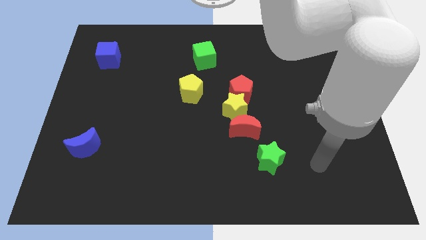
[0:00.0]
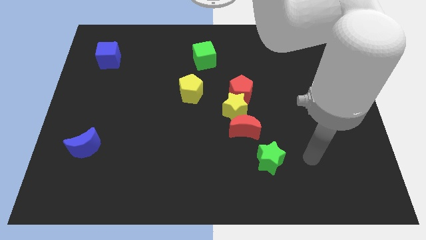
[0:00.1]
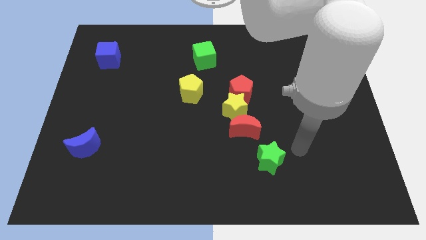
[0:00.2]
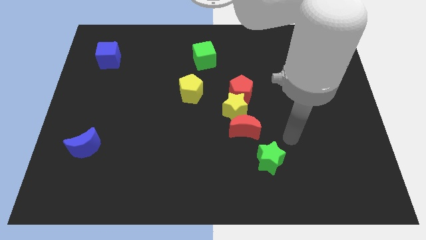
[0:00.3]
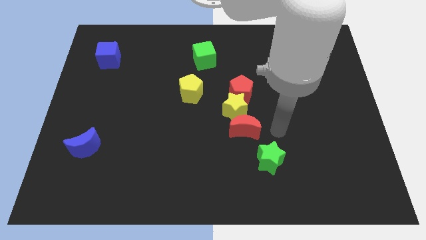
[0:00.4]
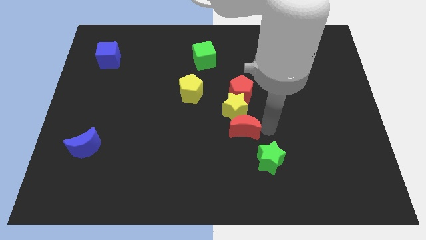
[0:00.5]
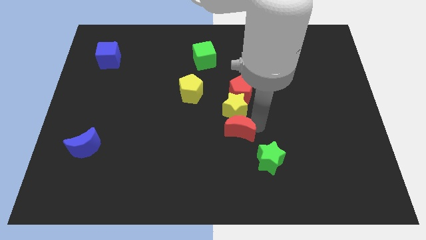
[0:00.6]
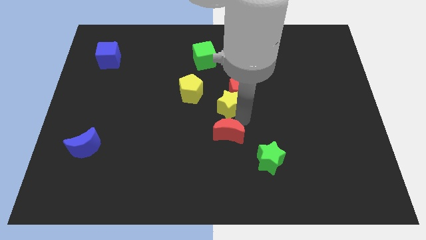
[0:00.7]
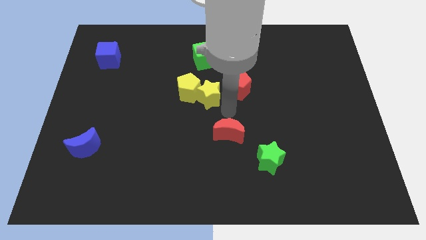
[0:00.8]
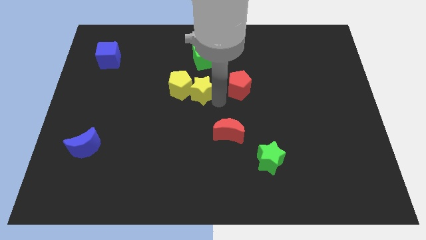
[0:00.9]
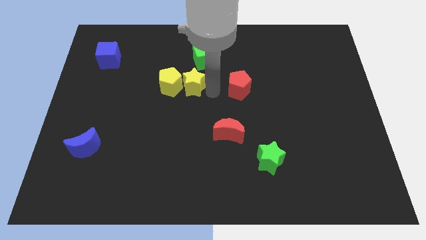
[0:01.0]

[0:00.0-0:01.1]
move the red pentagon away from the yellow star

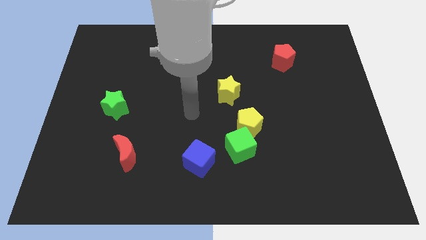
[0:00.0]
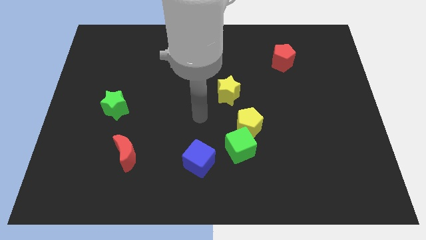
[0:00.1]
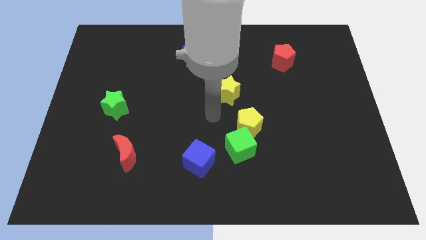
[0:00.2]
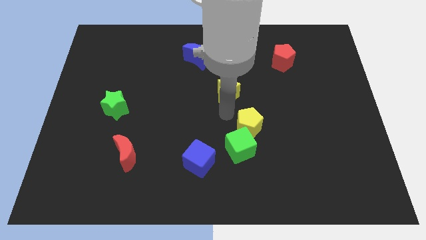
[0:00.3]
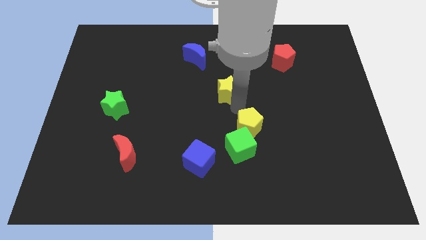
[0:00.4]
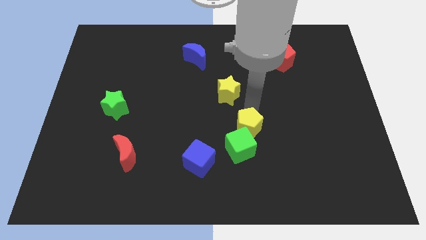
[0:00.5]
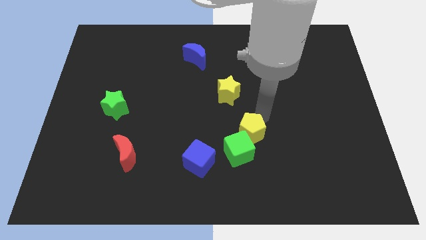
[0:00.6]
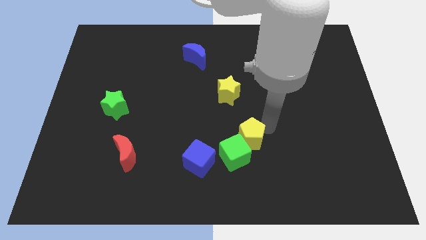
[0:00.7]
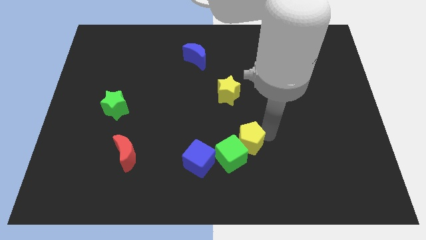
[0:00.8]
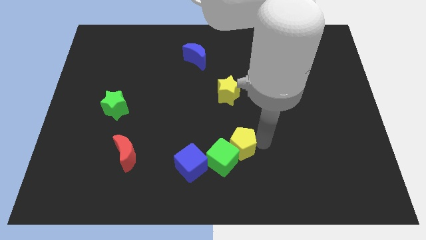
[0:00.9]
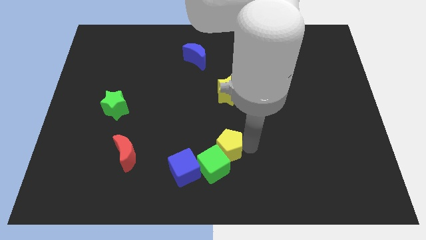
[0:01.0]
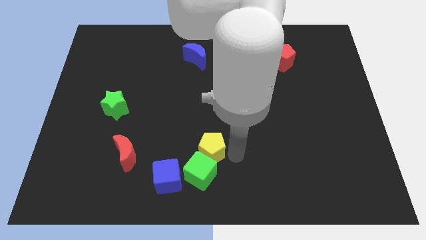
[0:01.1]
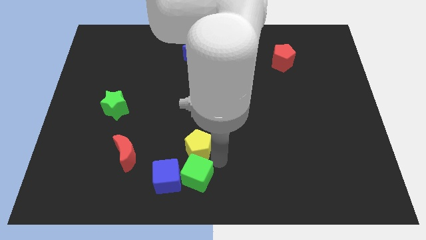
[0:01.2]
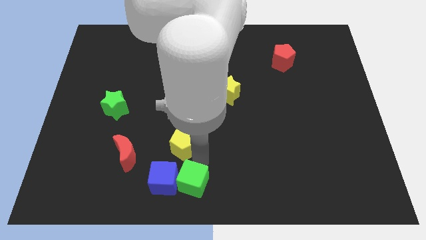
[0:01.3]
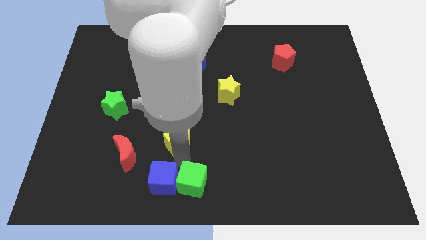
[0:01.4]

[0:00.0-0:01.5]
separate the yellow pentagon from the green cube

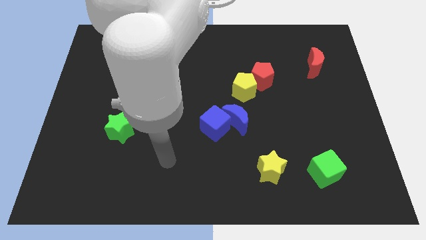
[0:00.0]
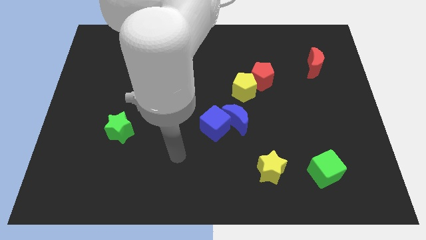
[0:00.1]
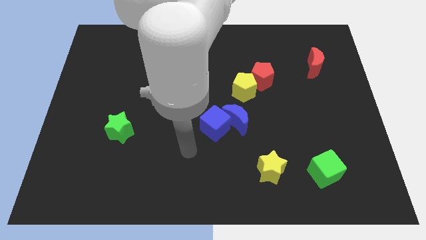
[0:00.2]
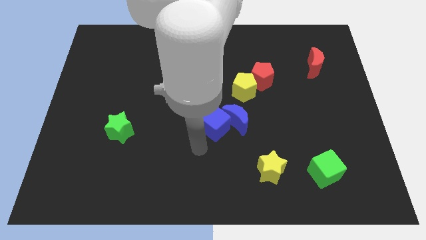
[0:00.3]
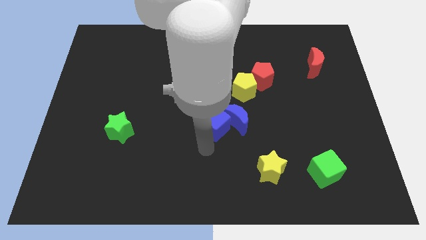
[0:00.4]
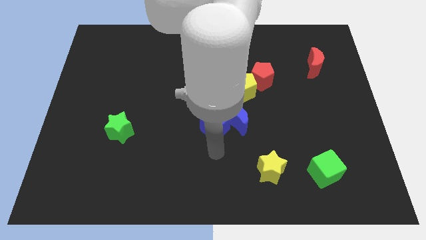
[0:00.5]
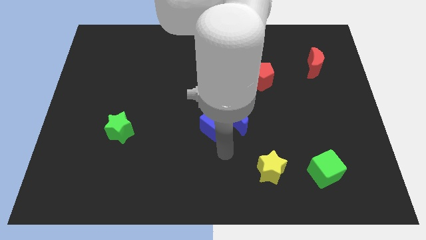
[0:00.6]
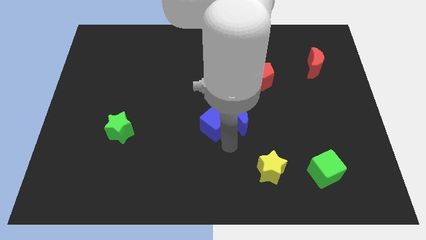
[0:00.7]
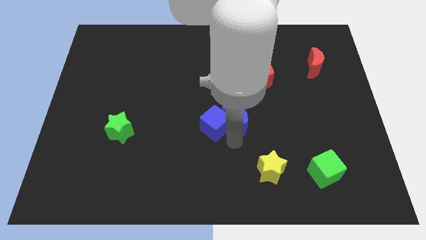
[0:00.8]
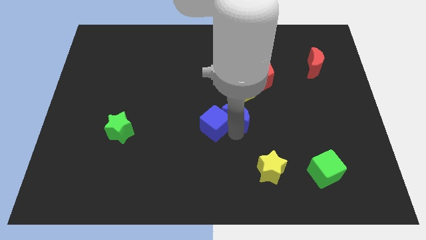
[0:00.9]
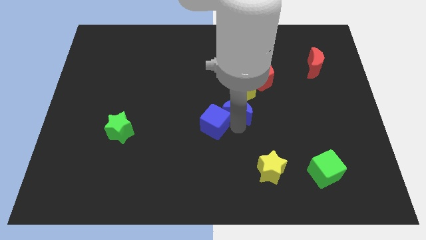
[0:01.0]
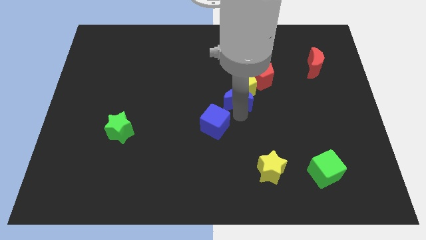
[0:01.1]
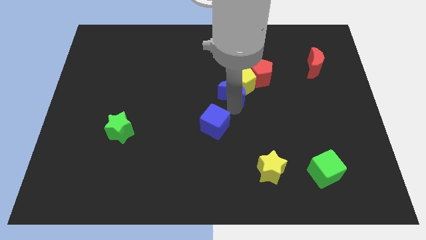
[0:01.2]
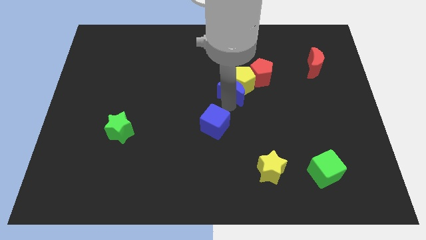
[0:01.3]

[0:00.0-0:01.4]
move the blue cube away from the blue moon

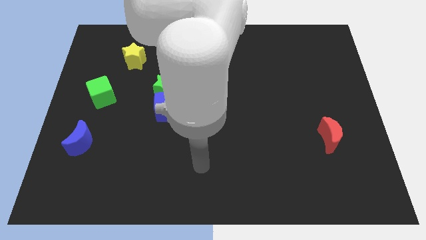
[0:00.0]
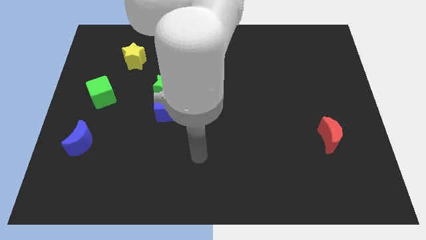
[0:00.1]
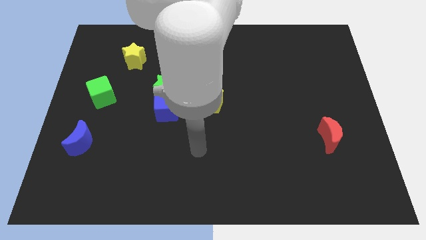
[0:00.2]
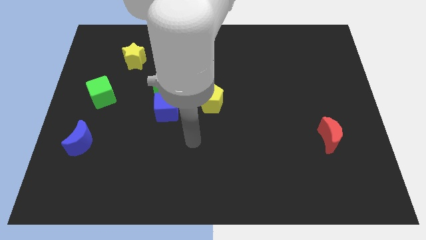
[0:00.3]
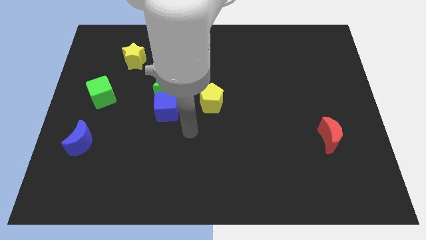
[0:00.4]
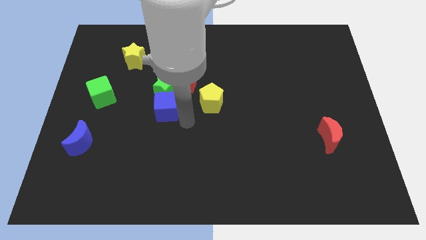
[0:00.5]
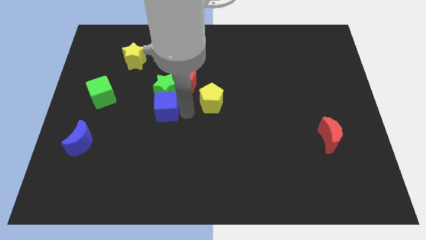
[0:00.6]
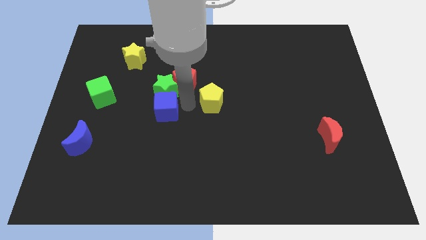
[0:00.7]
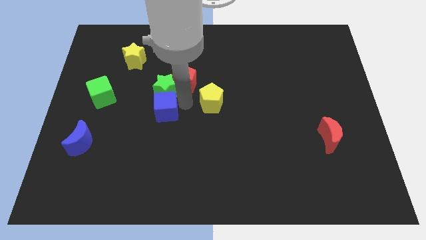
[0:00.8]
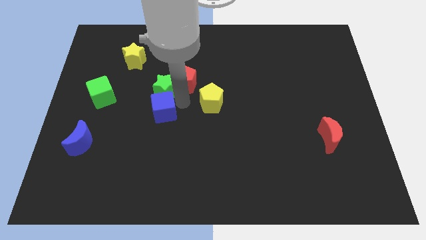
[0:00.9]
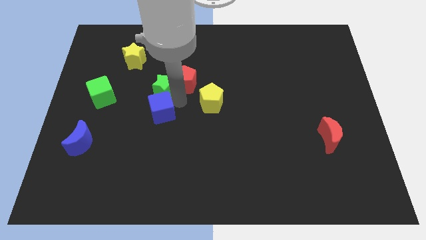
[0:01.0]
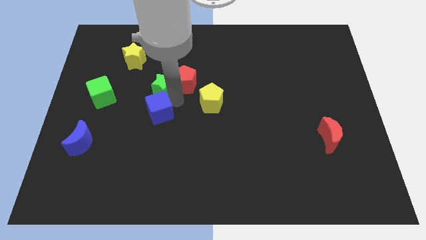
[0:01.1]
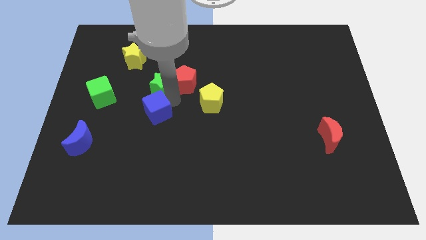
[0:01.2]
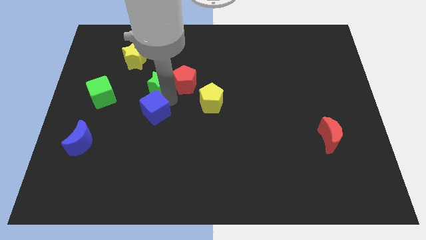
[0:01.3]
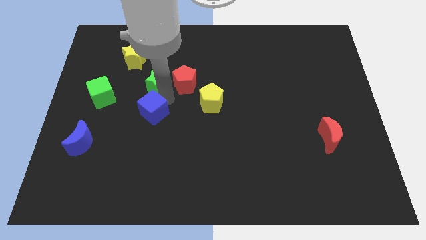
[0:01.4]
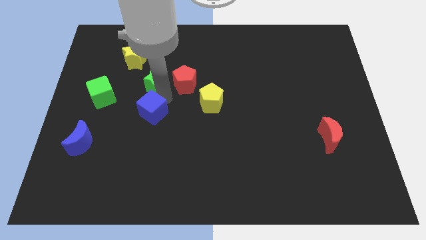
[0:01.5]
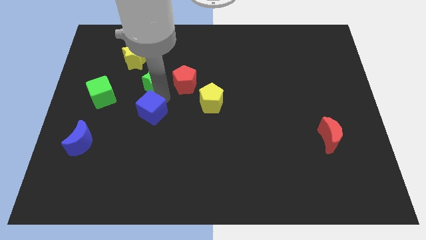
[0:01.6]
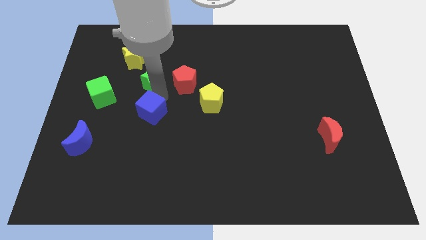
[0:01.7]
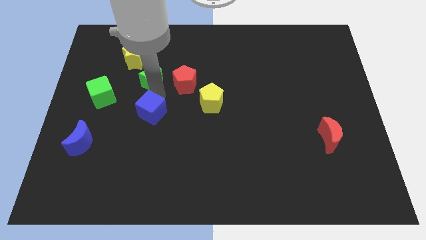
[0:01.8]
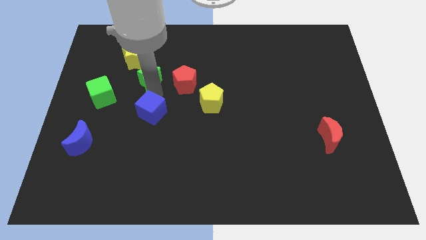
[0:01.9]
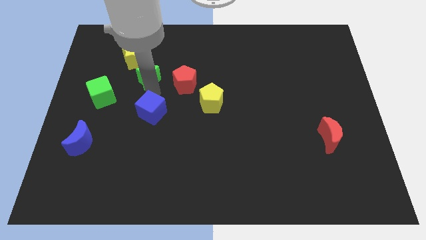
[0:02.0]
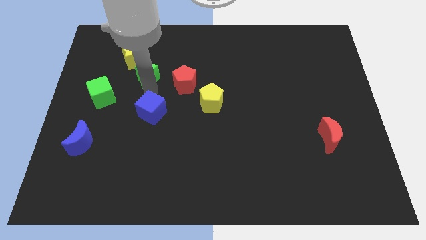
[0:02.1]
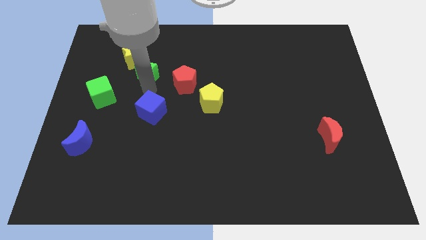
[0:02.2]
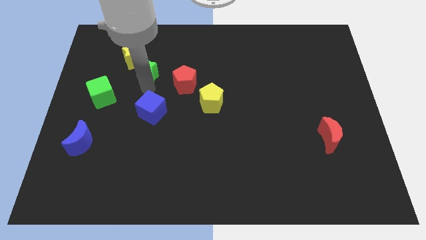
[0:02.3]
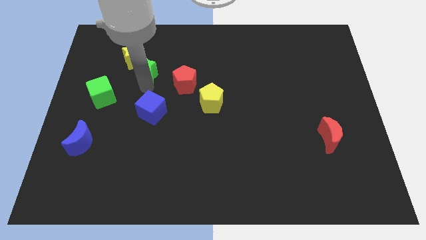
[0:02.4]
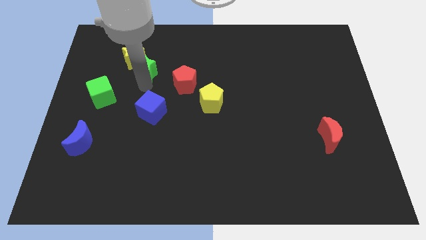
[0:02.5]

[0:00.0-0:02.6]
move the green star away from the red pentagon and blue cube

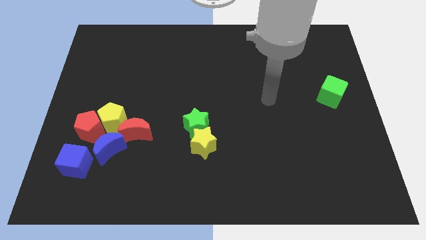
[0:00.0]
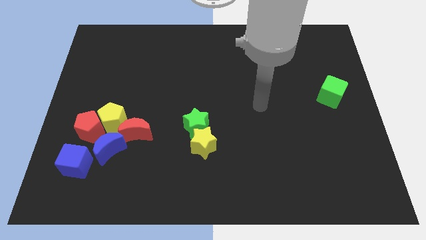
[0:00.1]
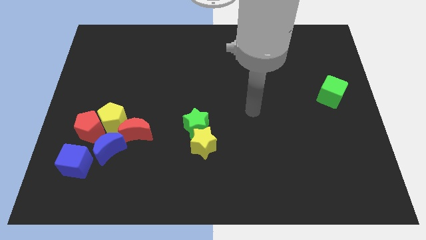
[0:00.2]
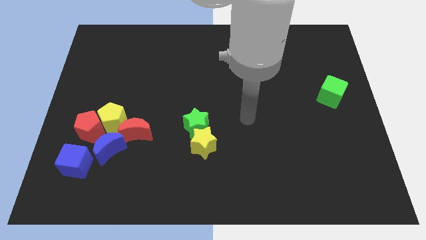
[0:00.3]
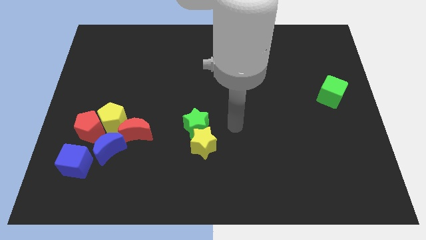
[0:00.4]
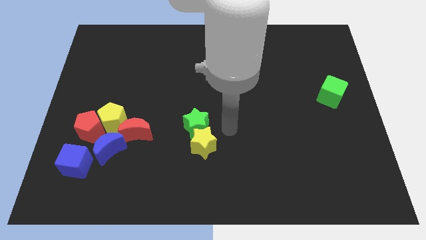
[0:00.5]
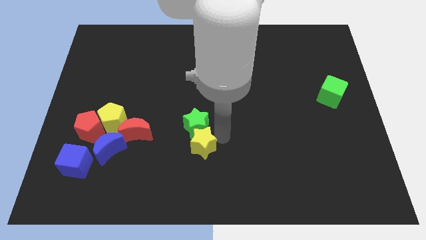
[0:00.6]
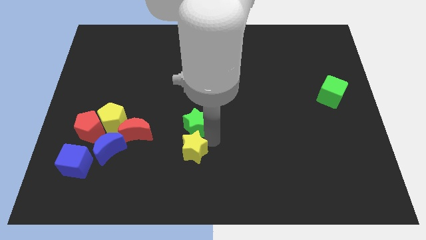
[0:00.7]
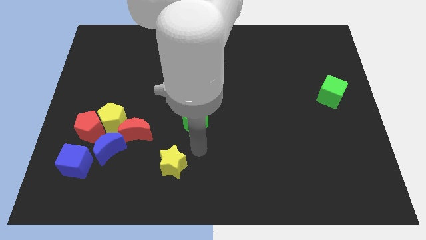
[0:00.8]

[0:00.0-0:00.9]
pull the green star apart from the yellow star

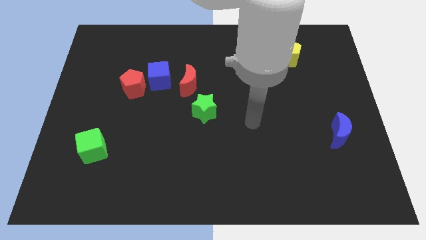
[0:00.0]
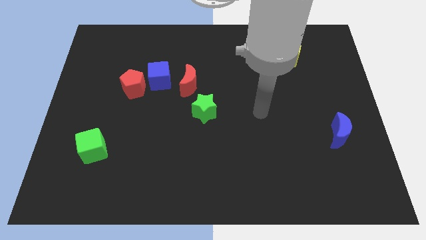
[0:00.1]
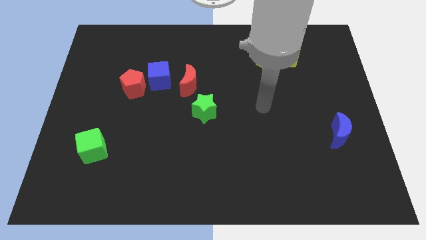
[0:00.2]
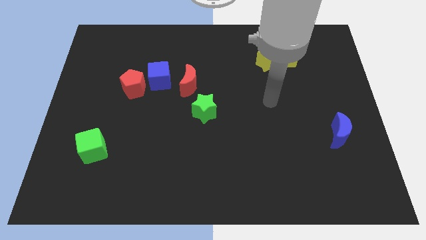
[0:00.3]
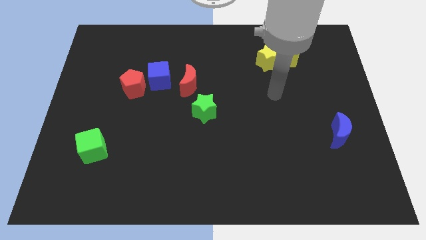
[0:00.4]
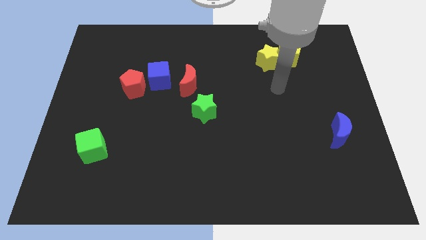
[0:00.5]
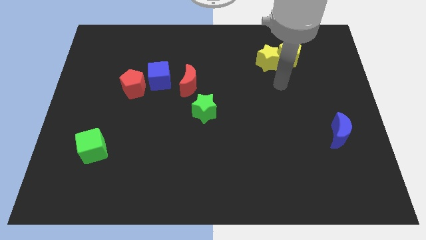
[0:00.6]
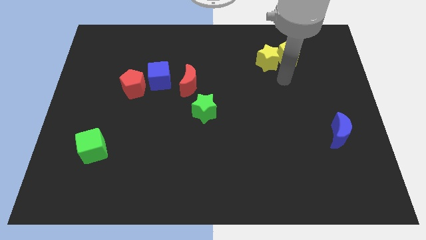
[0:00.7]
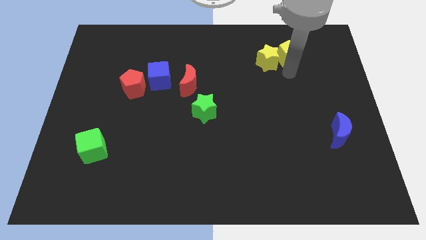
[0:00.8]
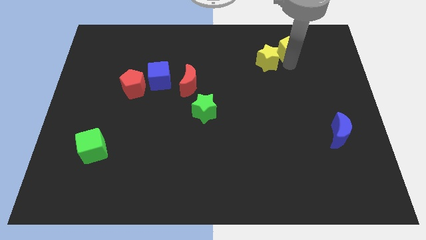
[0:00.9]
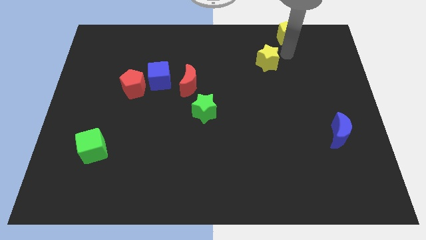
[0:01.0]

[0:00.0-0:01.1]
move the yellow star away from the yellow pentagon

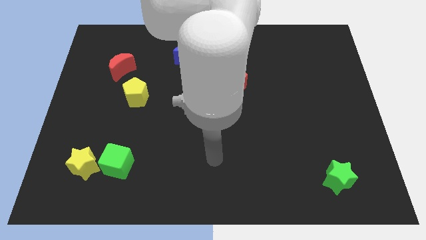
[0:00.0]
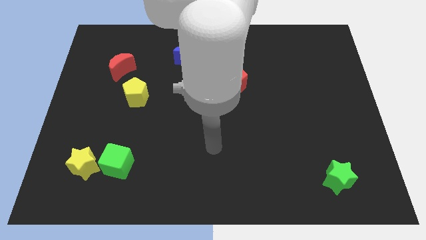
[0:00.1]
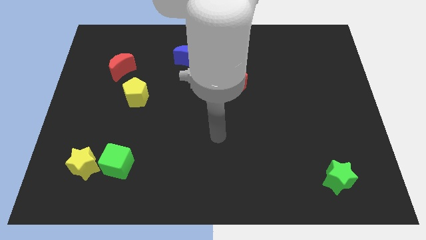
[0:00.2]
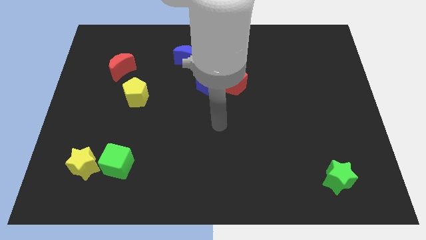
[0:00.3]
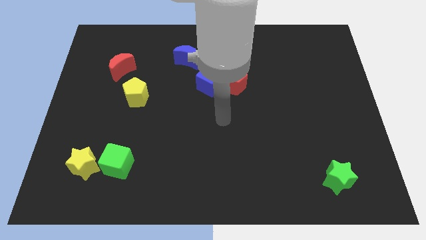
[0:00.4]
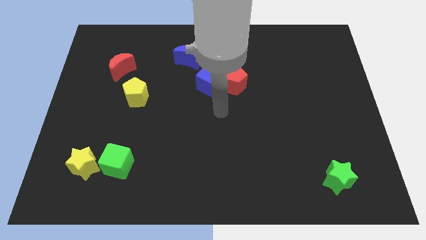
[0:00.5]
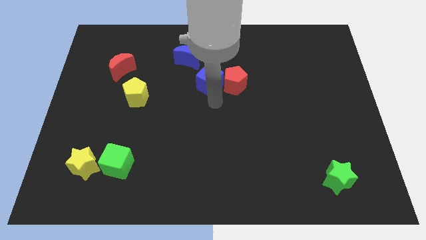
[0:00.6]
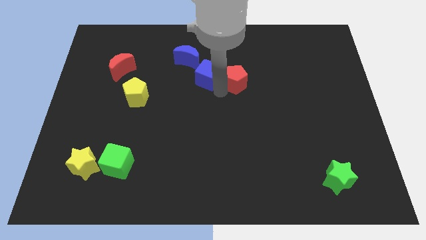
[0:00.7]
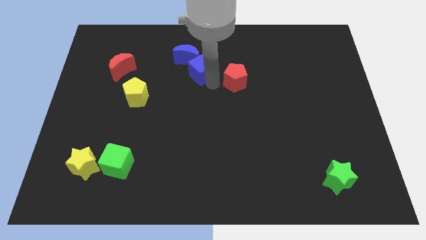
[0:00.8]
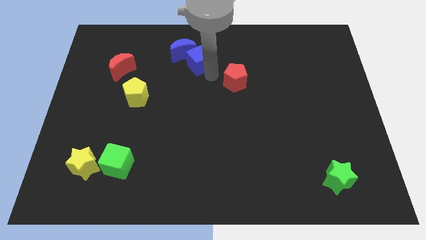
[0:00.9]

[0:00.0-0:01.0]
pull the red pentagon apart from the blue cube
